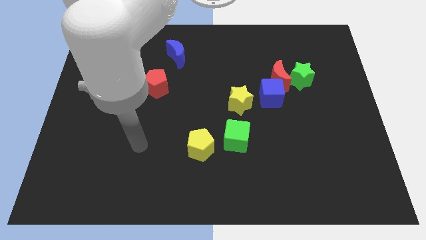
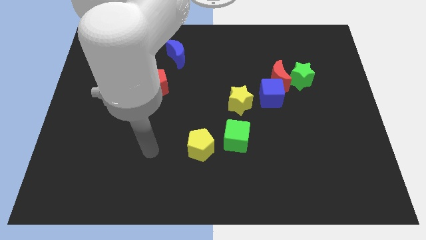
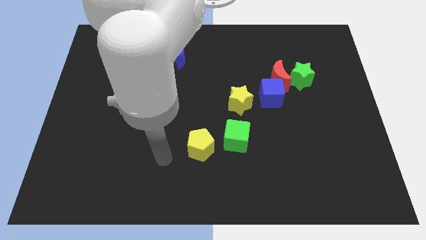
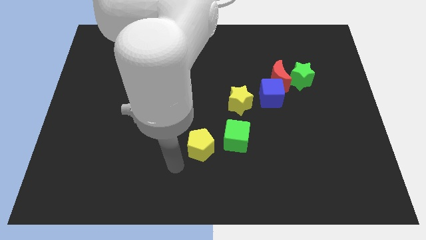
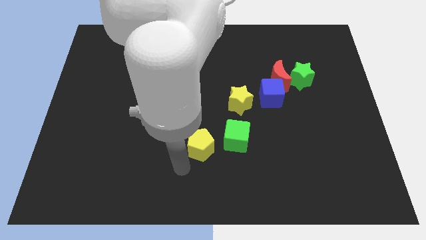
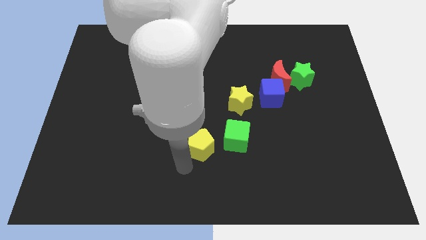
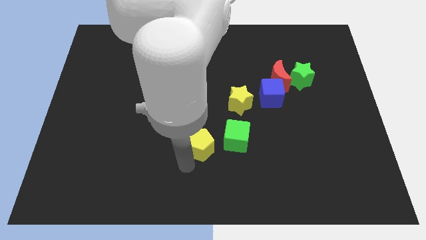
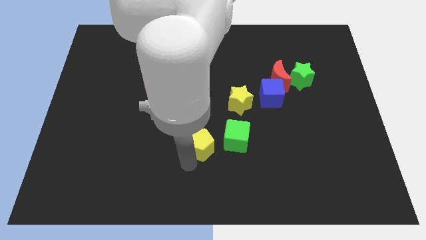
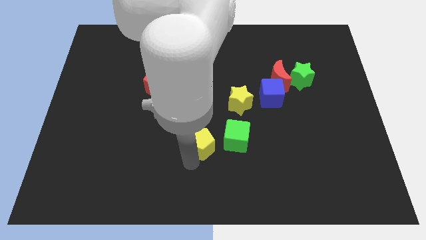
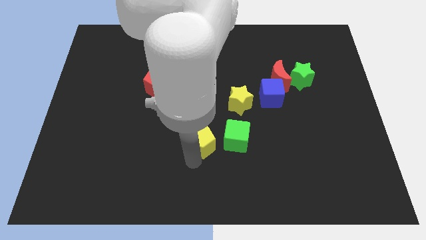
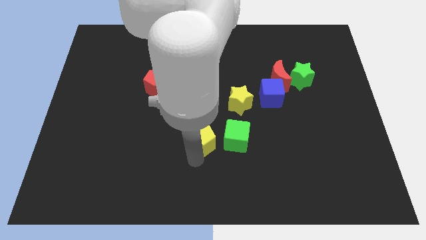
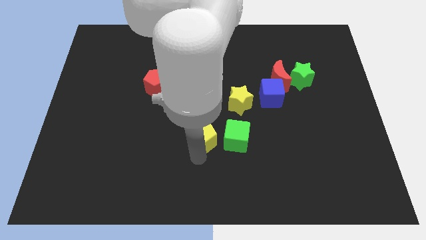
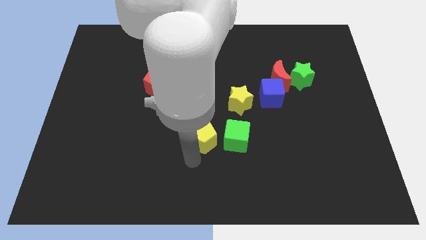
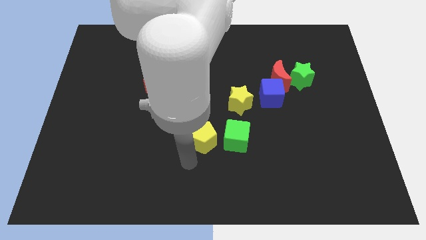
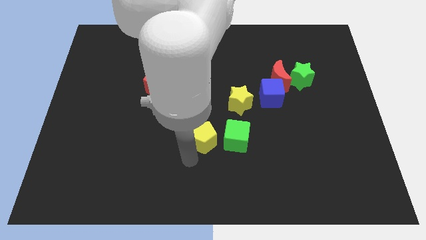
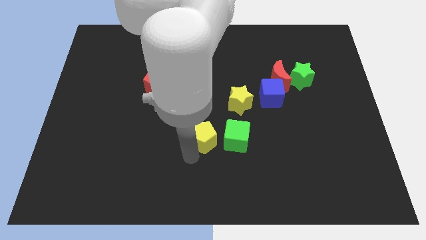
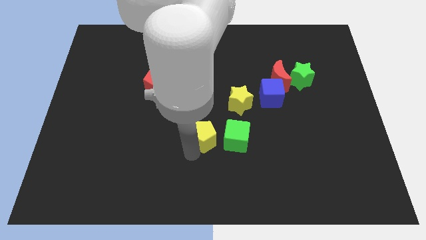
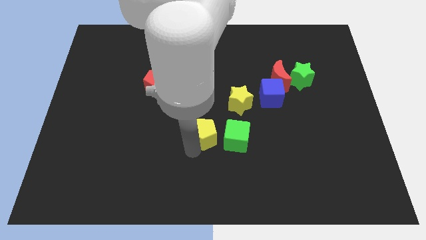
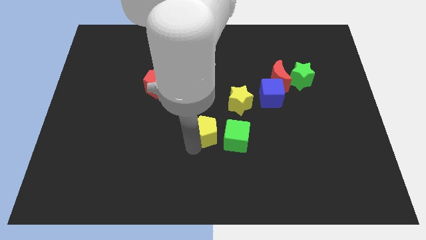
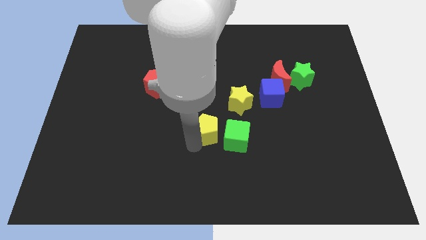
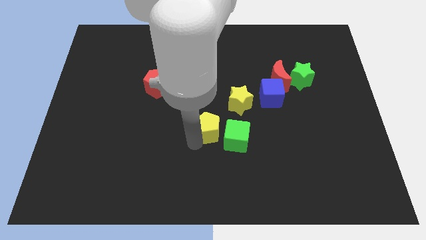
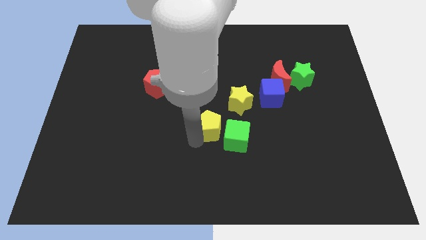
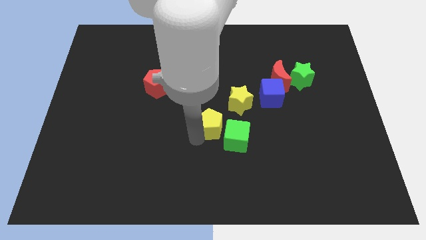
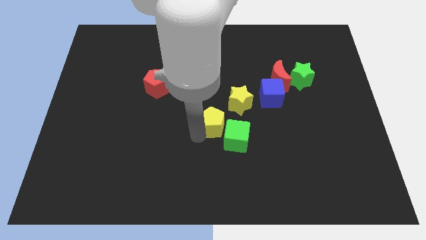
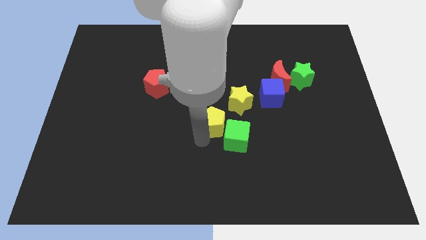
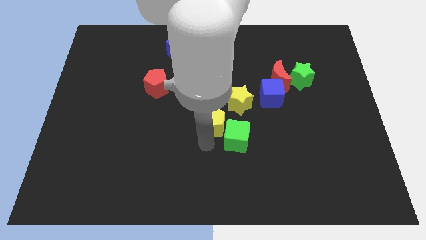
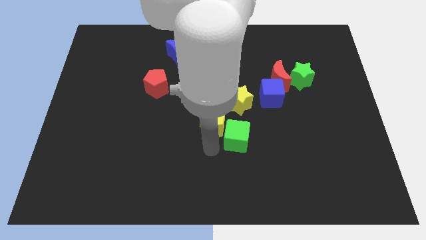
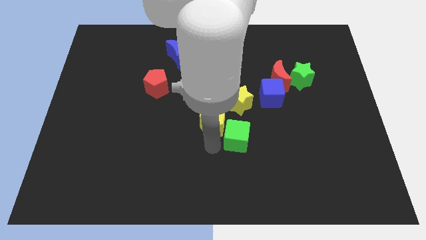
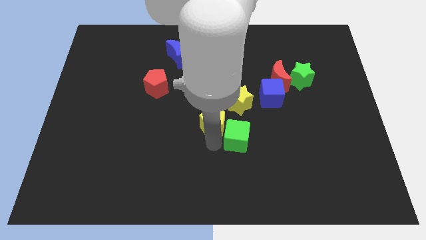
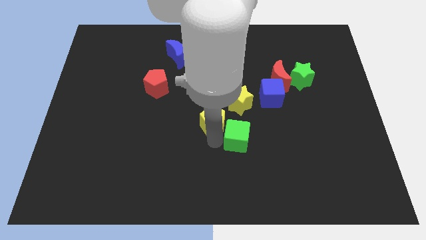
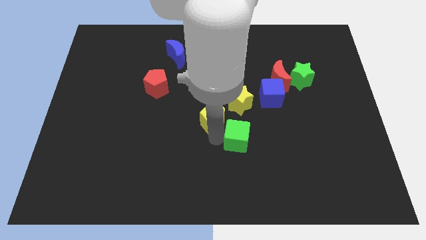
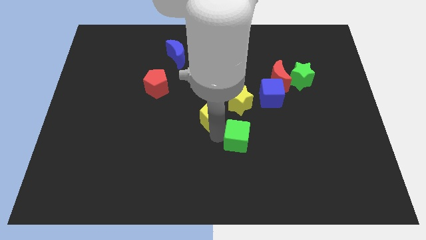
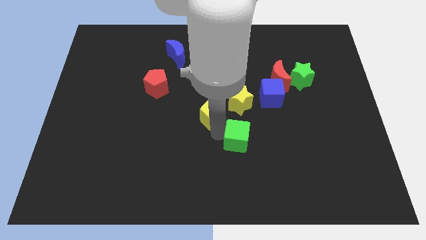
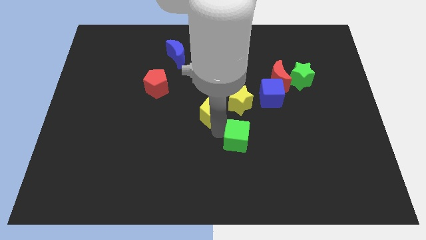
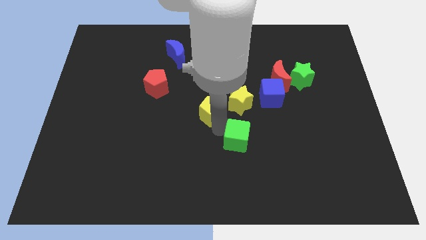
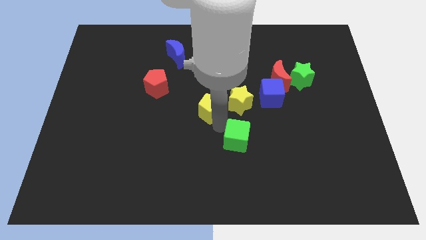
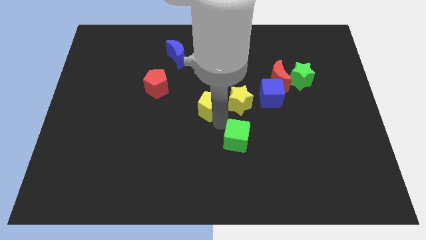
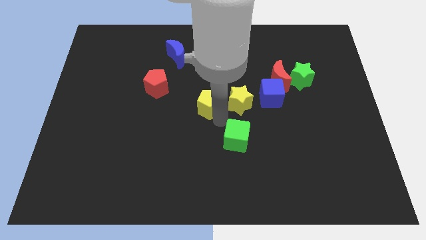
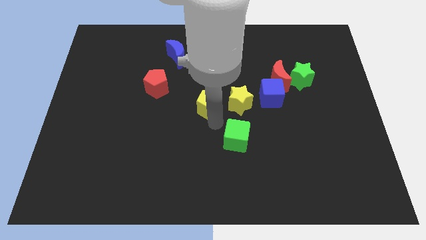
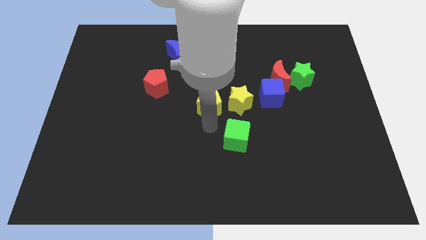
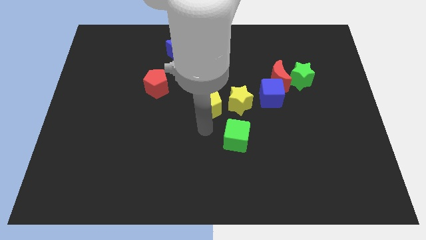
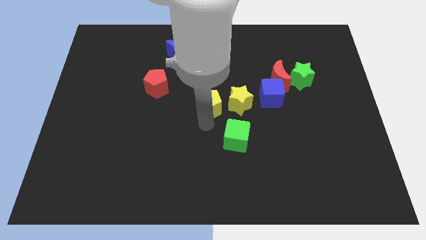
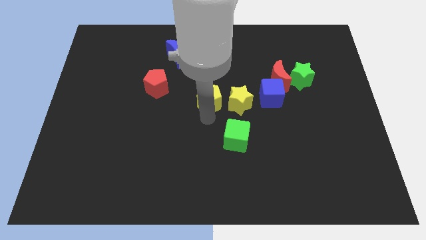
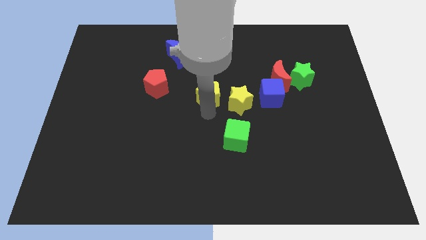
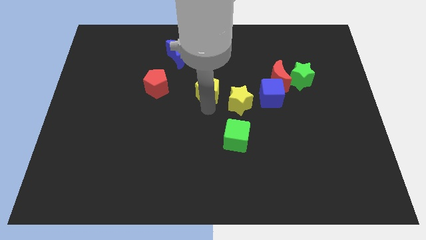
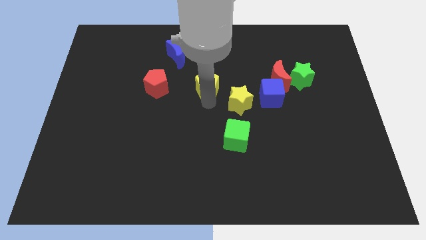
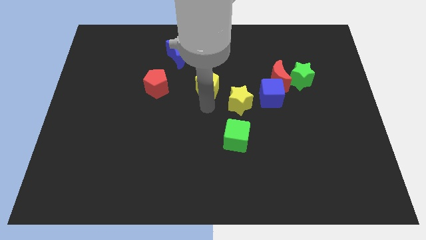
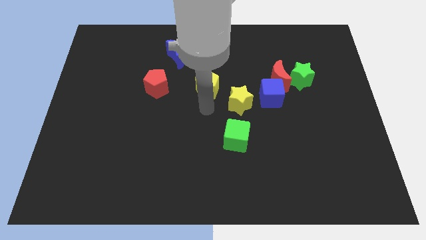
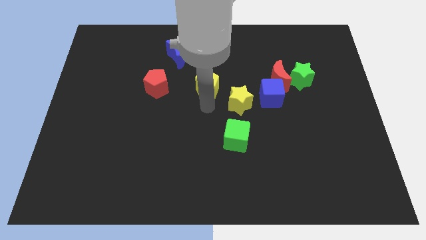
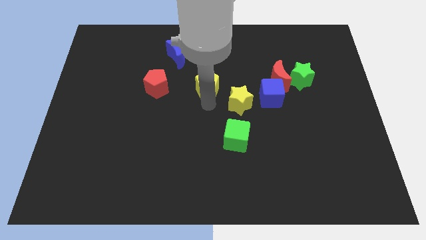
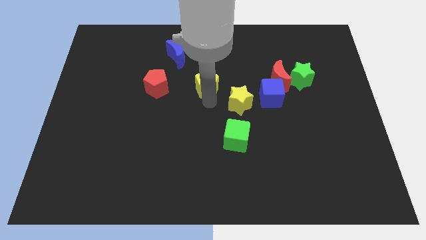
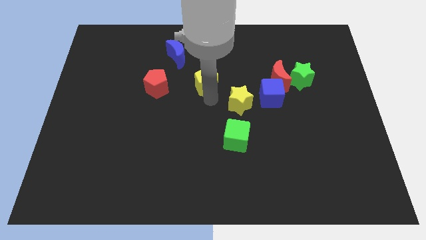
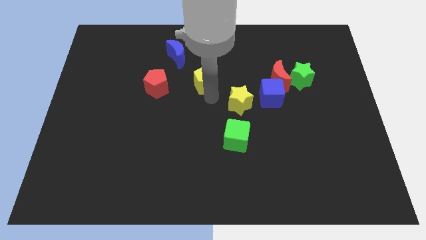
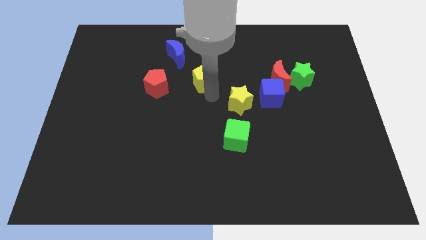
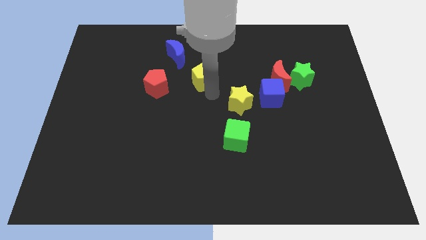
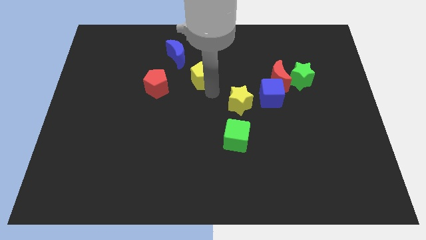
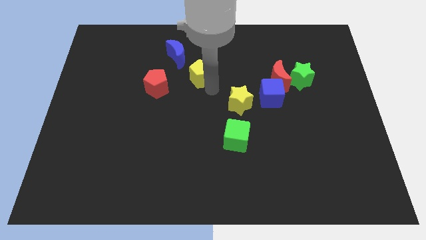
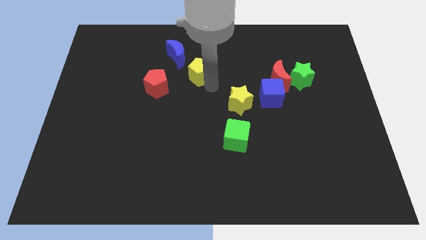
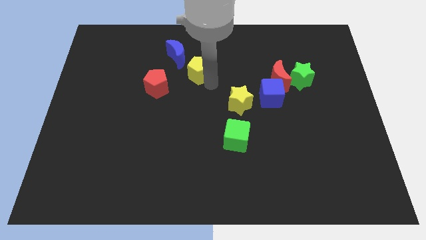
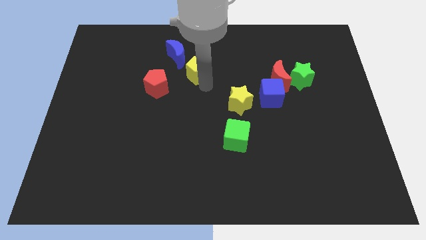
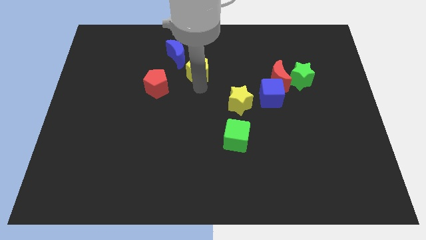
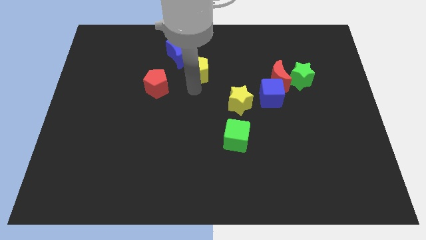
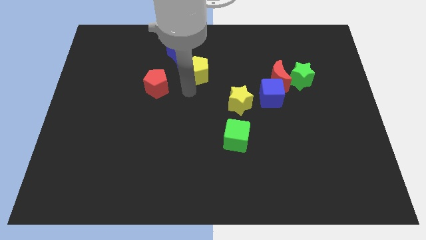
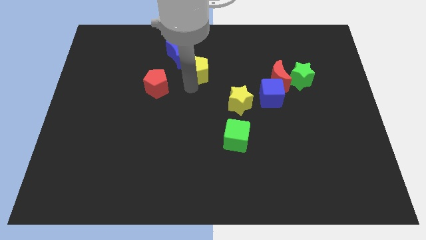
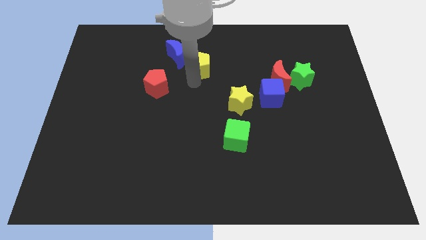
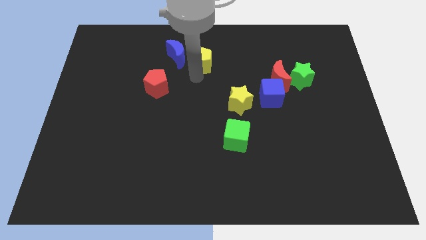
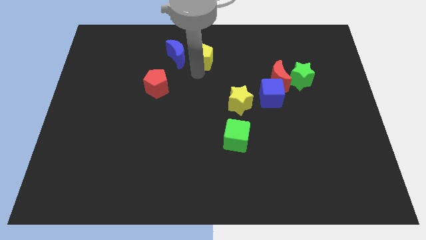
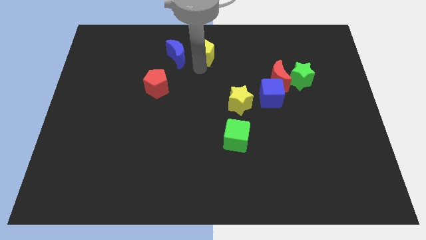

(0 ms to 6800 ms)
move the yellow pentagon to the top side
